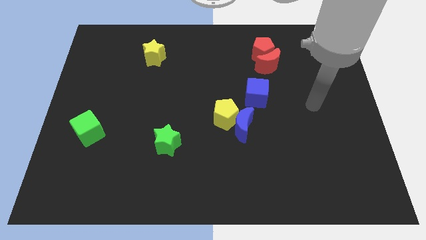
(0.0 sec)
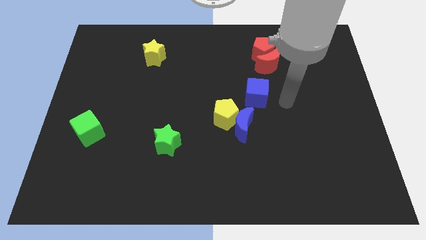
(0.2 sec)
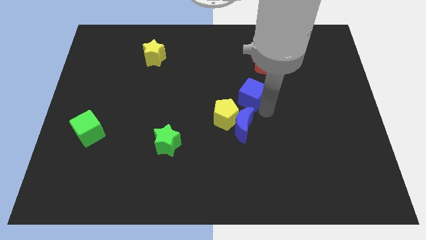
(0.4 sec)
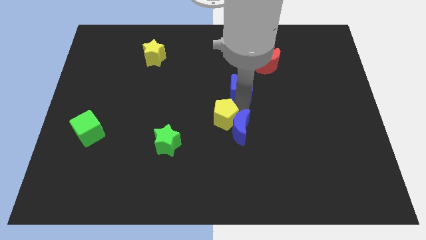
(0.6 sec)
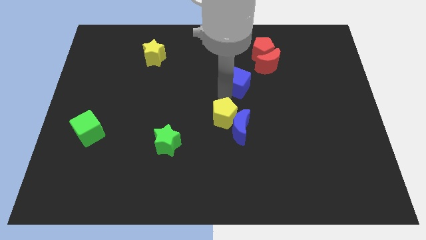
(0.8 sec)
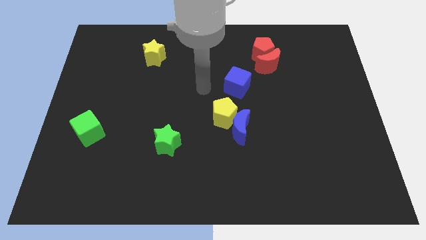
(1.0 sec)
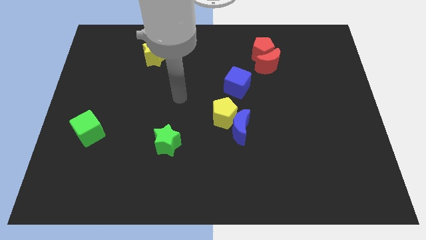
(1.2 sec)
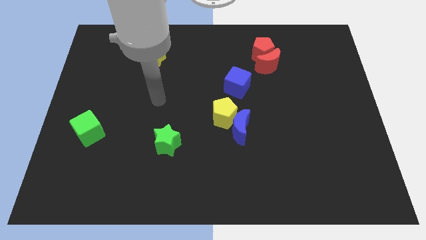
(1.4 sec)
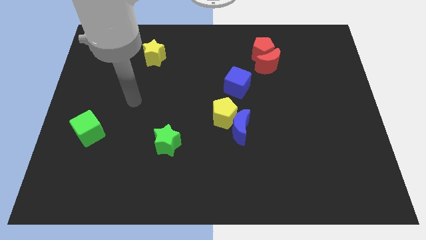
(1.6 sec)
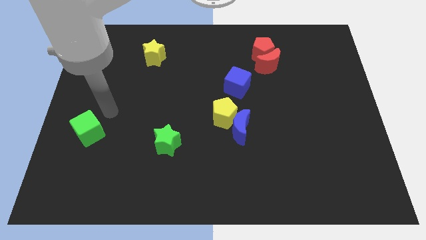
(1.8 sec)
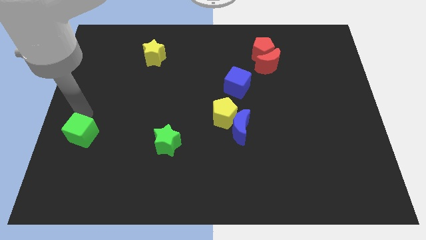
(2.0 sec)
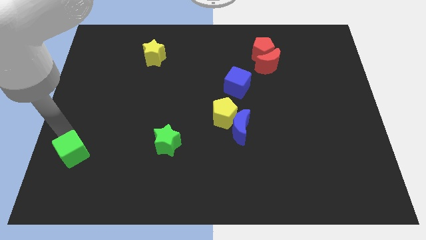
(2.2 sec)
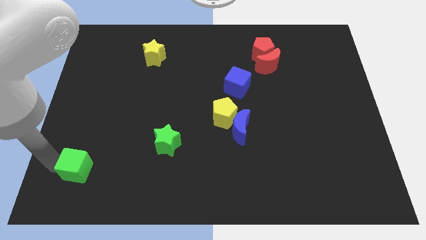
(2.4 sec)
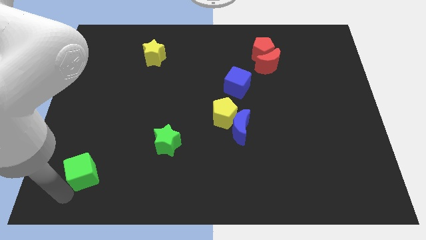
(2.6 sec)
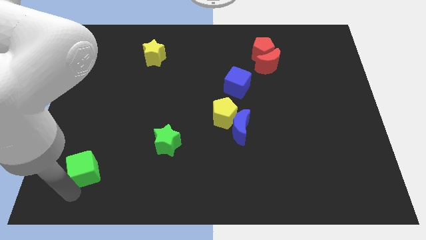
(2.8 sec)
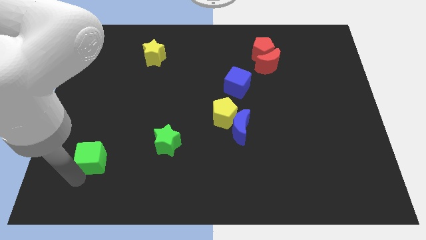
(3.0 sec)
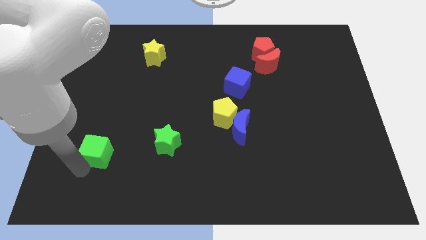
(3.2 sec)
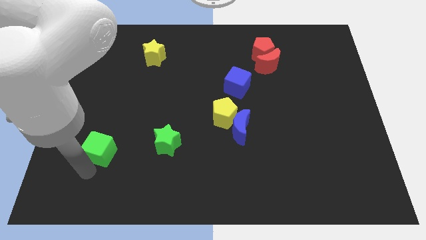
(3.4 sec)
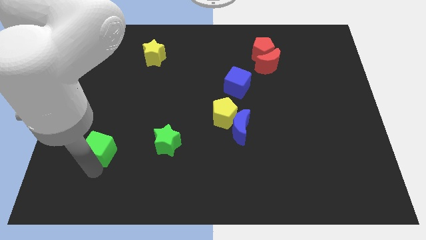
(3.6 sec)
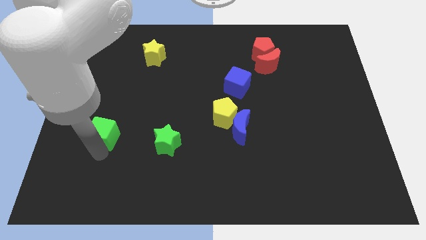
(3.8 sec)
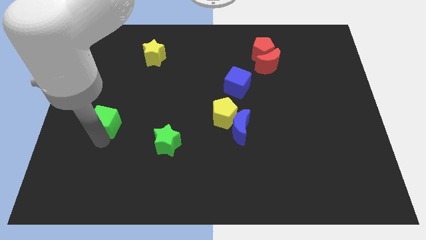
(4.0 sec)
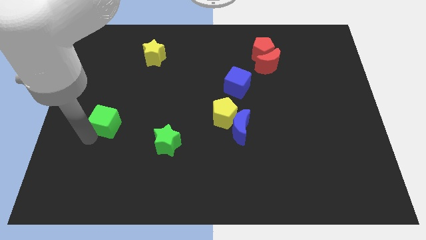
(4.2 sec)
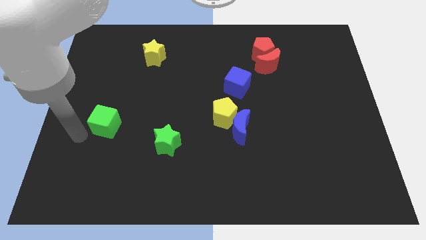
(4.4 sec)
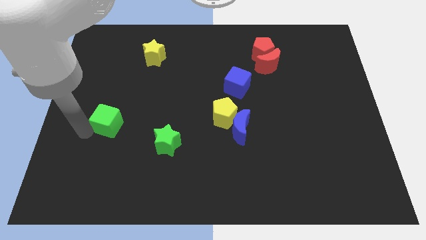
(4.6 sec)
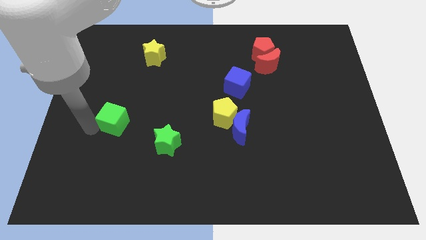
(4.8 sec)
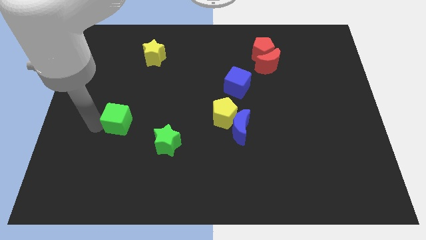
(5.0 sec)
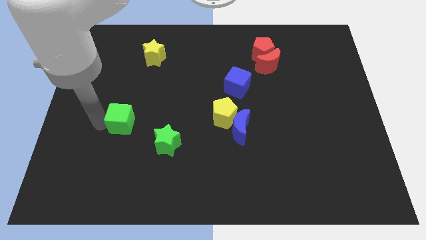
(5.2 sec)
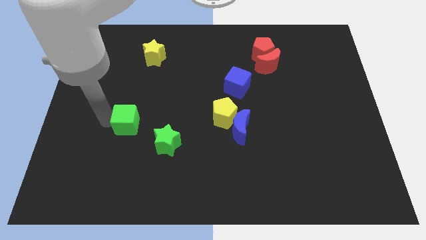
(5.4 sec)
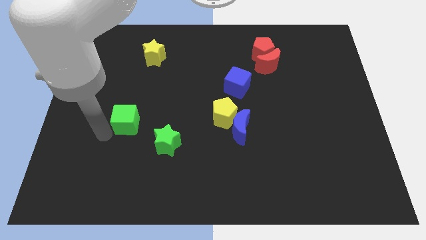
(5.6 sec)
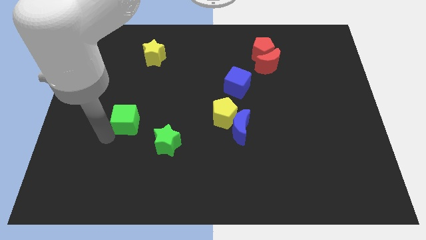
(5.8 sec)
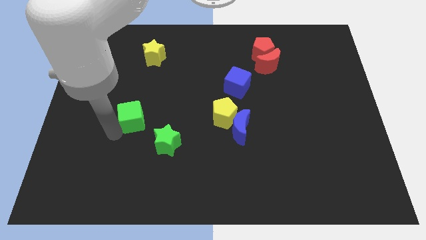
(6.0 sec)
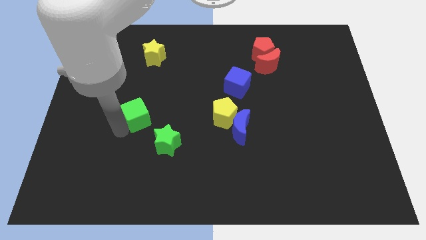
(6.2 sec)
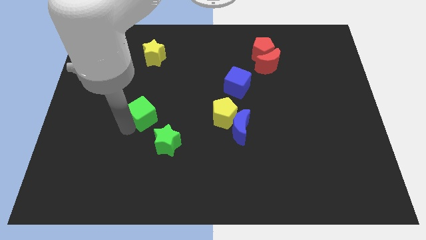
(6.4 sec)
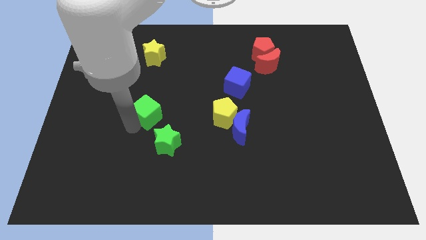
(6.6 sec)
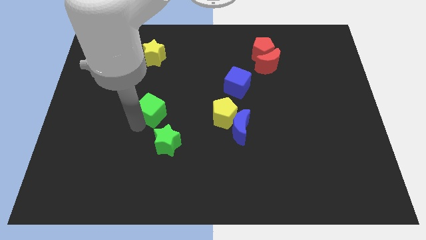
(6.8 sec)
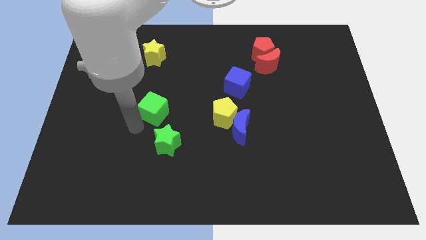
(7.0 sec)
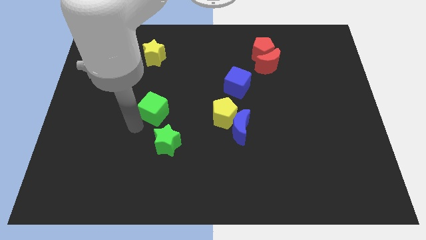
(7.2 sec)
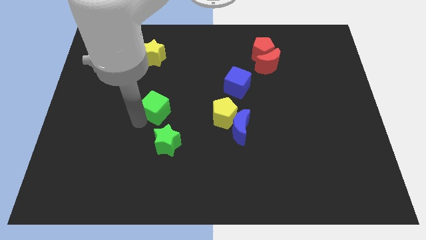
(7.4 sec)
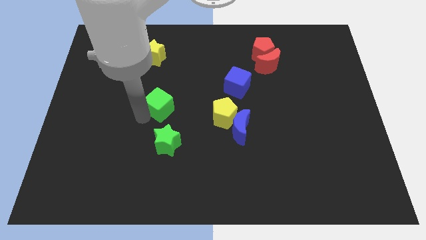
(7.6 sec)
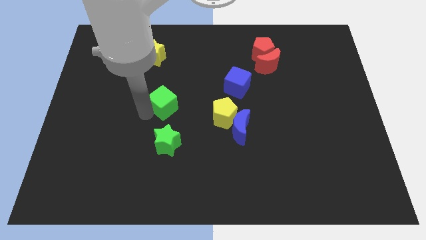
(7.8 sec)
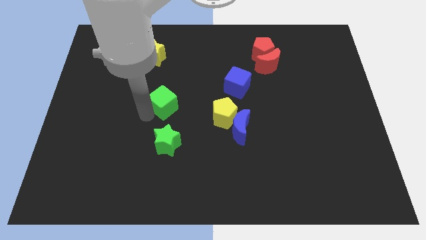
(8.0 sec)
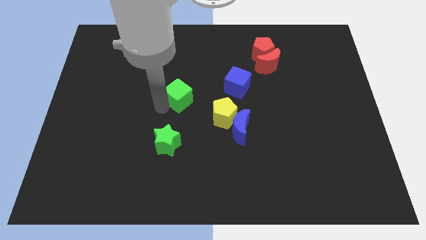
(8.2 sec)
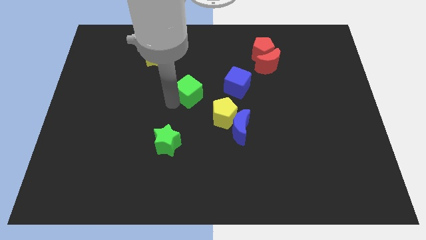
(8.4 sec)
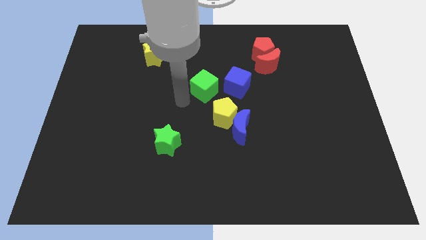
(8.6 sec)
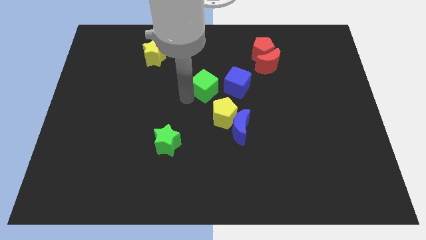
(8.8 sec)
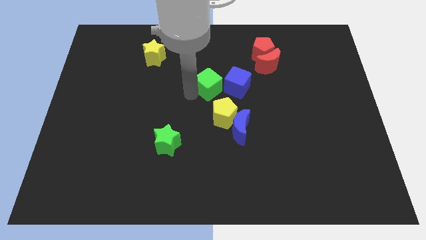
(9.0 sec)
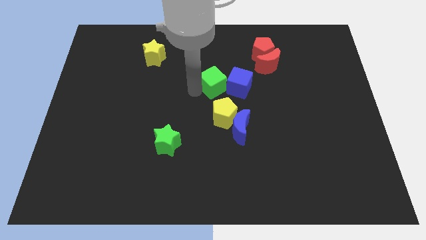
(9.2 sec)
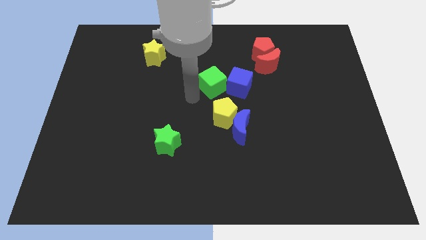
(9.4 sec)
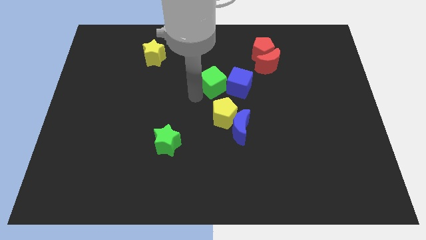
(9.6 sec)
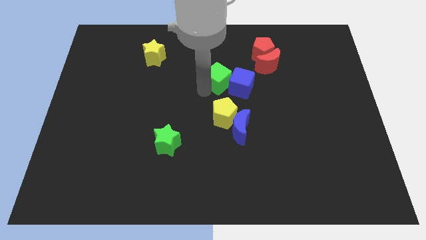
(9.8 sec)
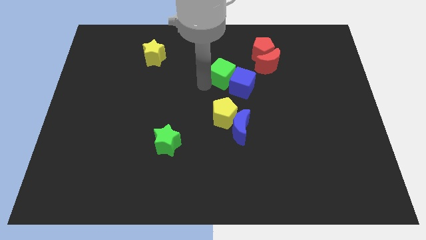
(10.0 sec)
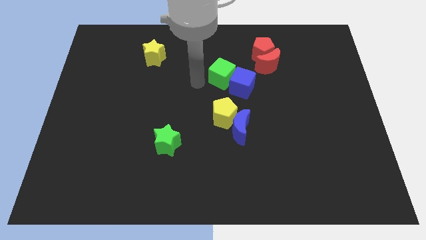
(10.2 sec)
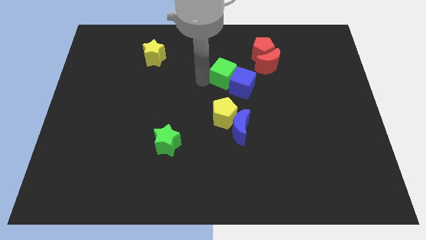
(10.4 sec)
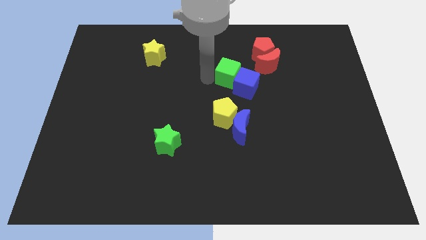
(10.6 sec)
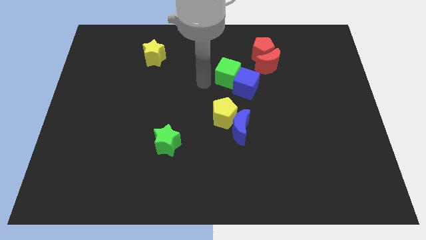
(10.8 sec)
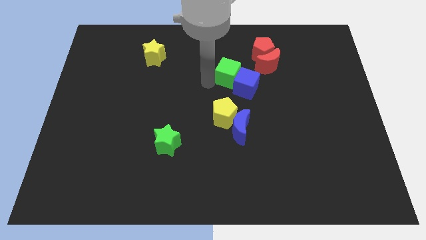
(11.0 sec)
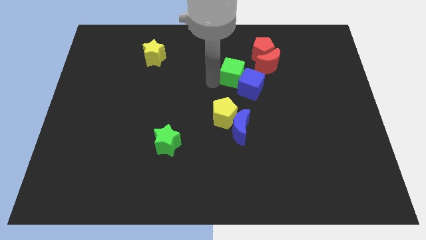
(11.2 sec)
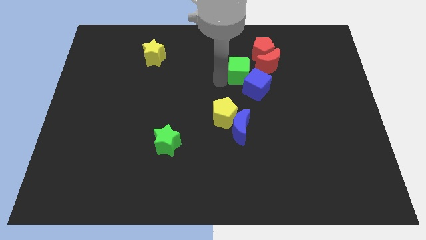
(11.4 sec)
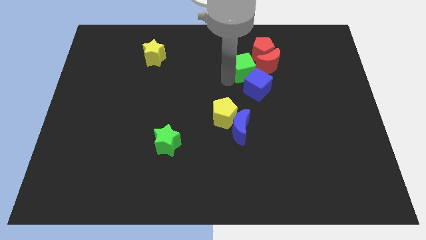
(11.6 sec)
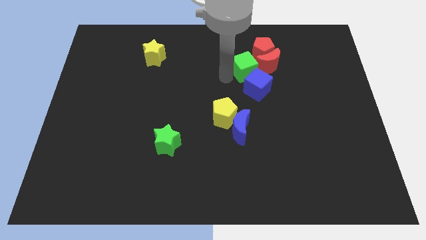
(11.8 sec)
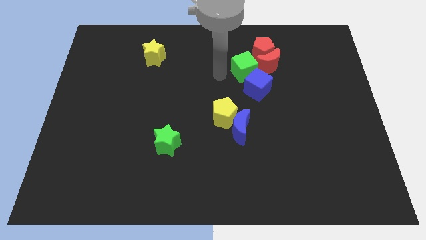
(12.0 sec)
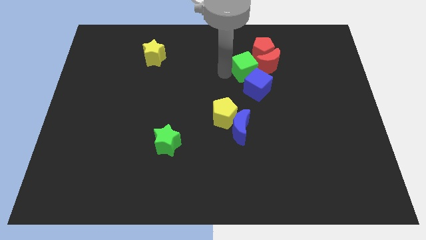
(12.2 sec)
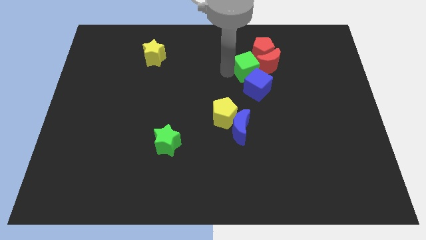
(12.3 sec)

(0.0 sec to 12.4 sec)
slide the green cube next to the red moon
